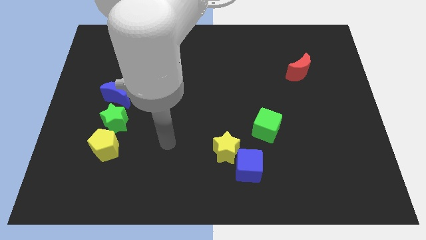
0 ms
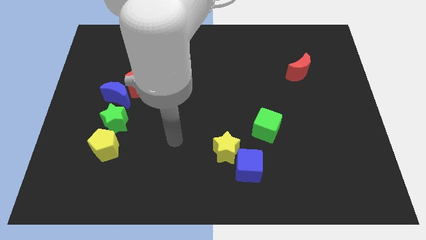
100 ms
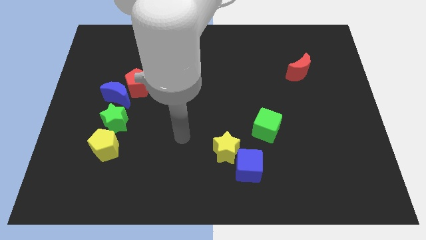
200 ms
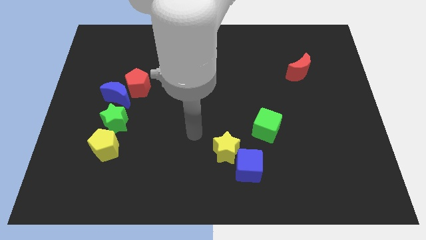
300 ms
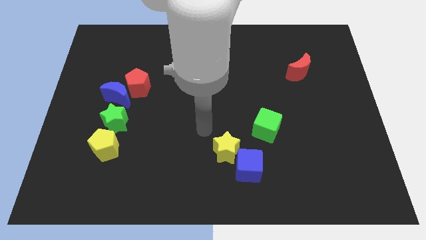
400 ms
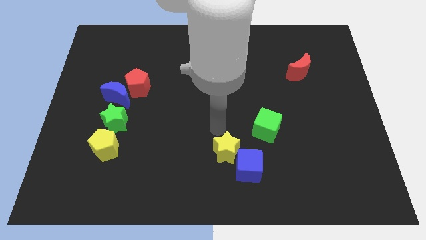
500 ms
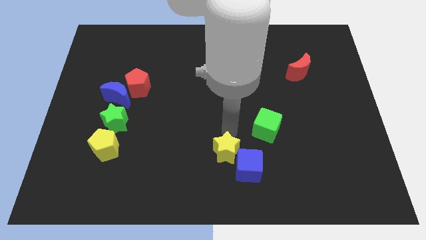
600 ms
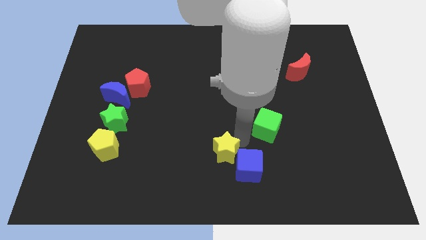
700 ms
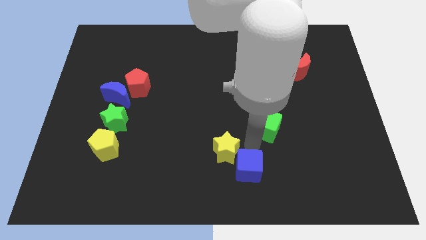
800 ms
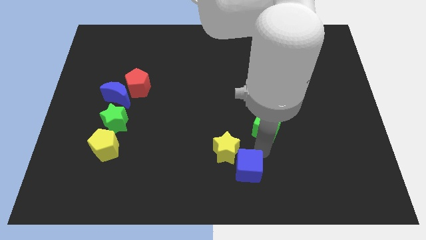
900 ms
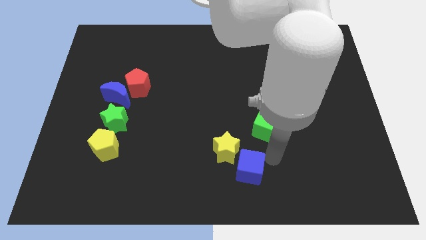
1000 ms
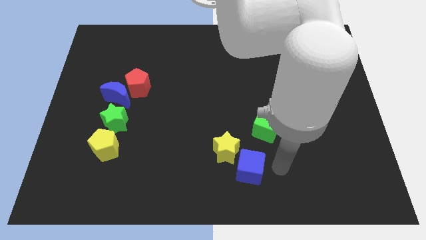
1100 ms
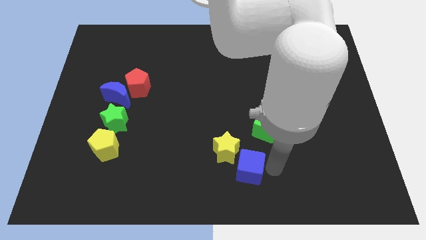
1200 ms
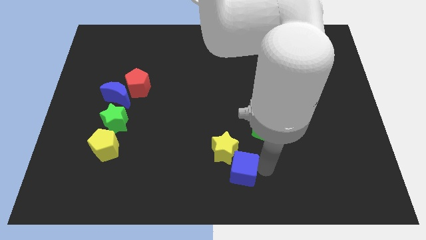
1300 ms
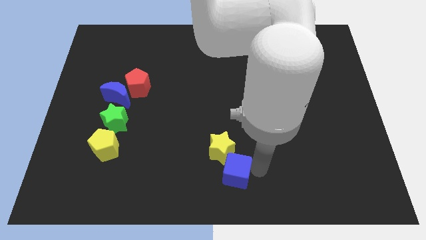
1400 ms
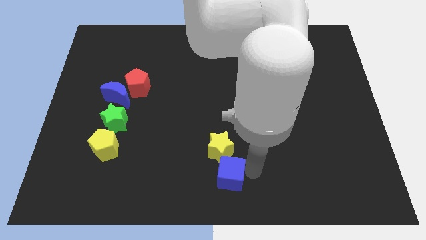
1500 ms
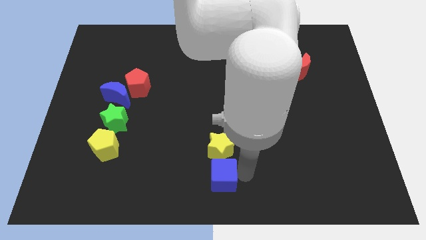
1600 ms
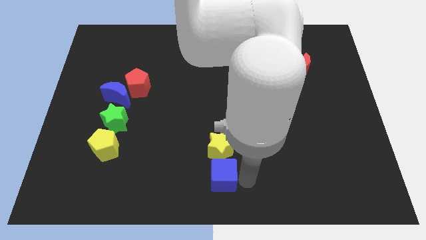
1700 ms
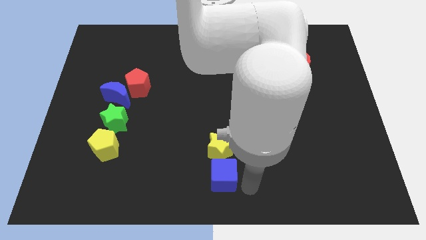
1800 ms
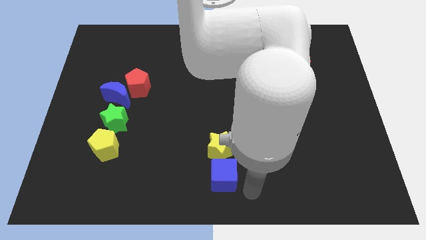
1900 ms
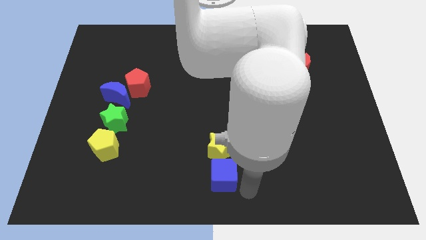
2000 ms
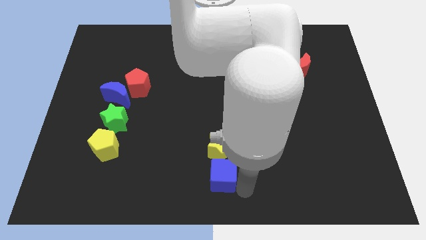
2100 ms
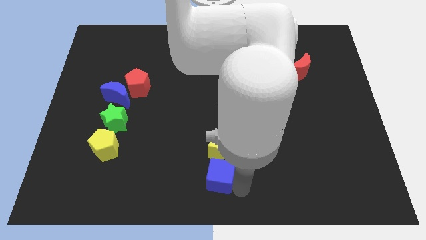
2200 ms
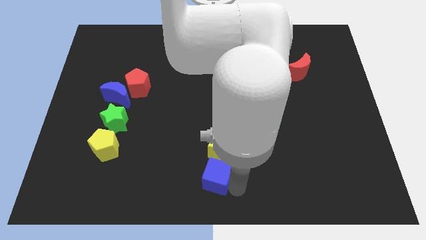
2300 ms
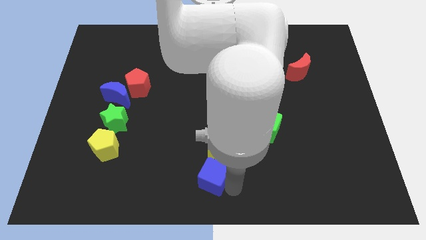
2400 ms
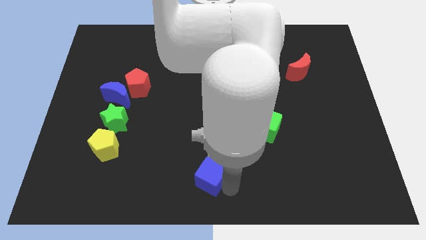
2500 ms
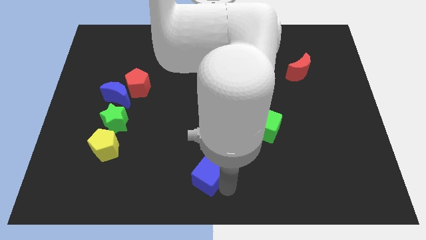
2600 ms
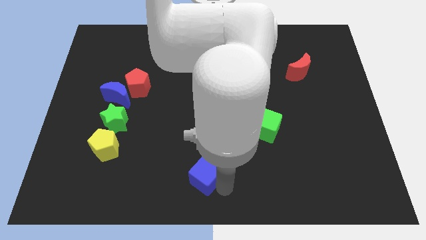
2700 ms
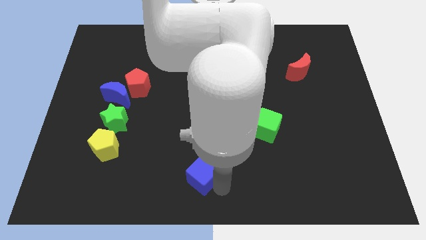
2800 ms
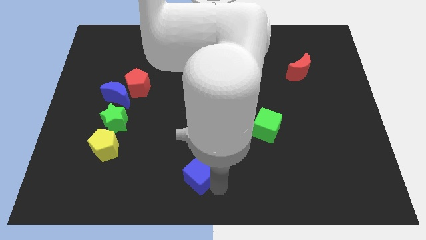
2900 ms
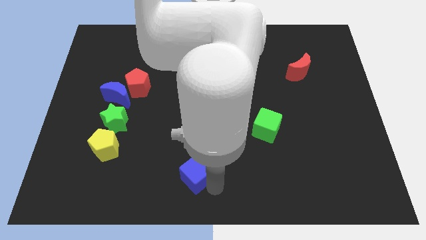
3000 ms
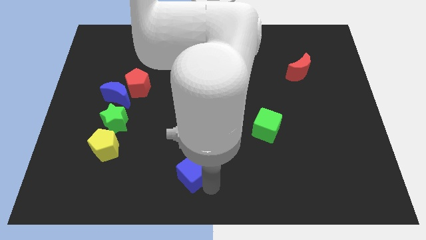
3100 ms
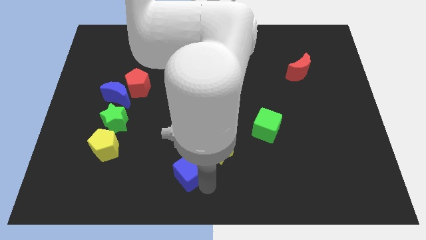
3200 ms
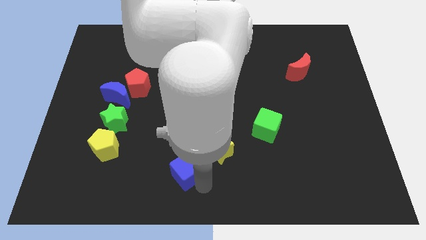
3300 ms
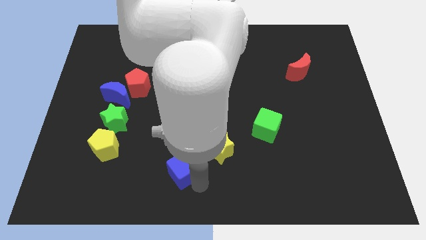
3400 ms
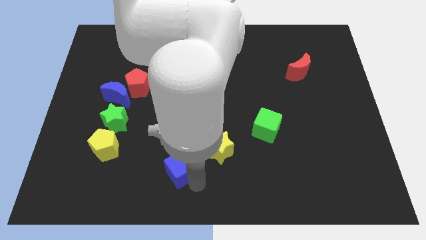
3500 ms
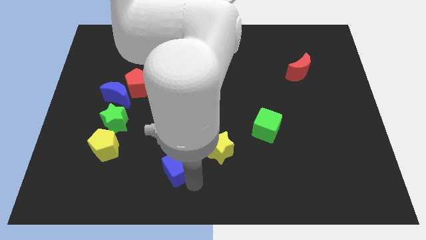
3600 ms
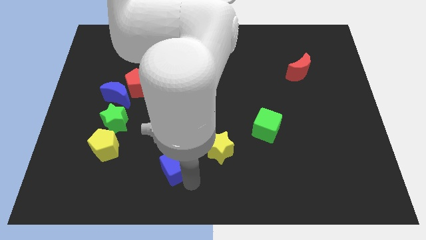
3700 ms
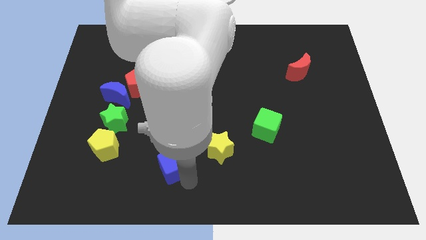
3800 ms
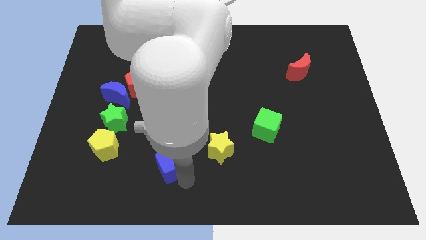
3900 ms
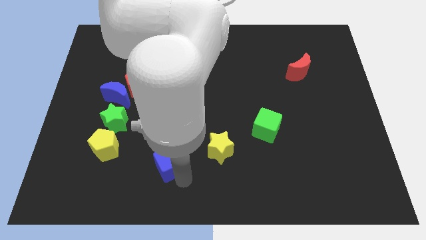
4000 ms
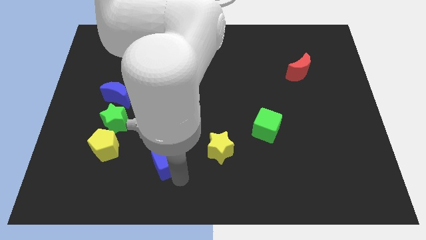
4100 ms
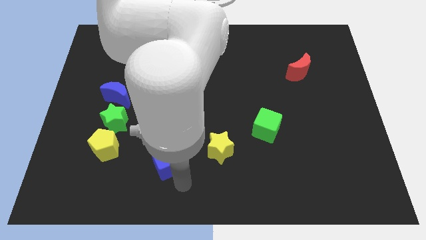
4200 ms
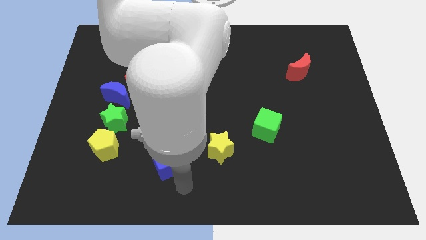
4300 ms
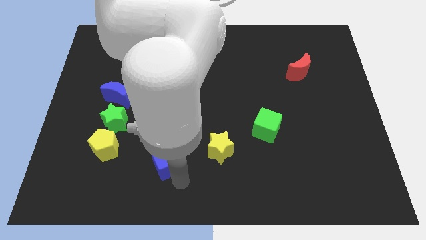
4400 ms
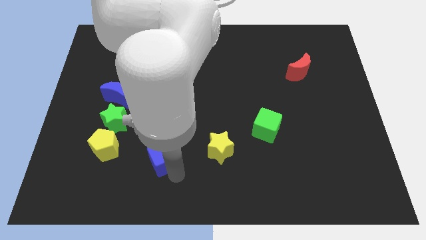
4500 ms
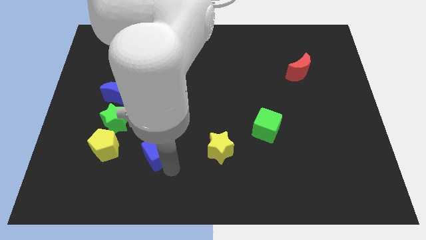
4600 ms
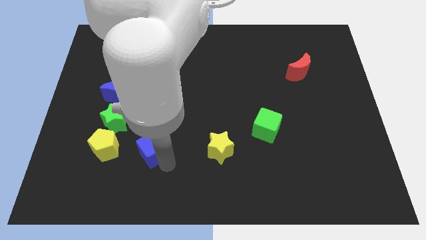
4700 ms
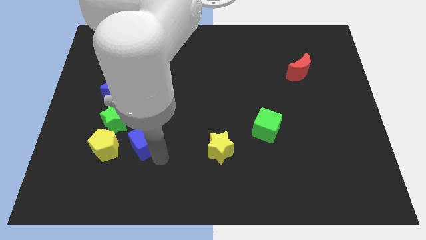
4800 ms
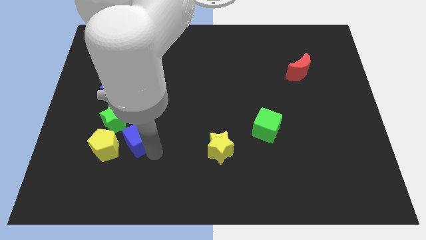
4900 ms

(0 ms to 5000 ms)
move the blue cube to the bottom of the red pentagon

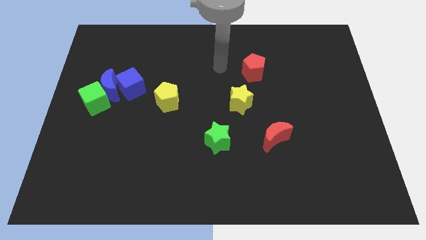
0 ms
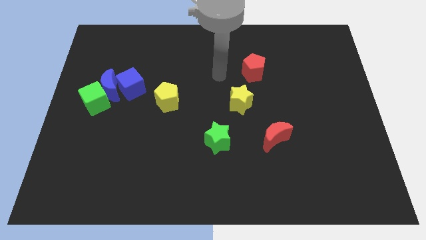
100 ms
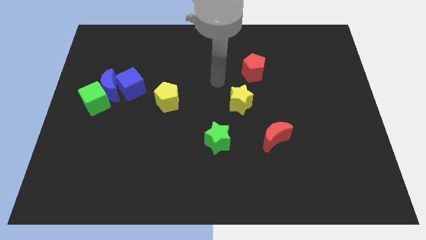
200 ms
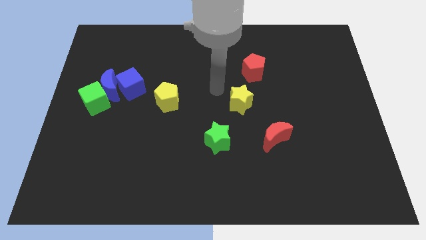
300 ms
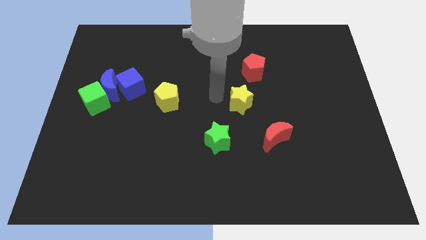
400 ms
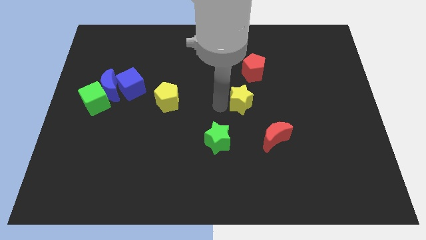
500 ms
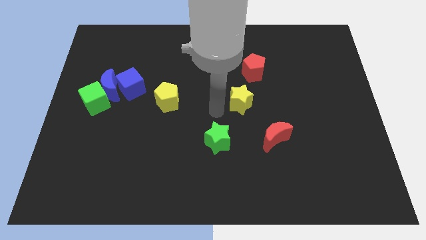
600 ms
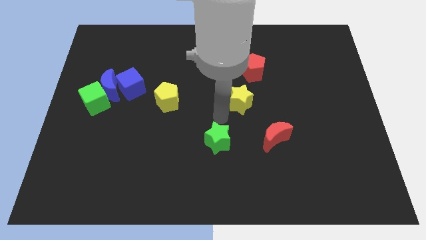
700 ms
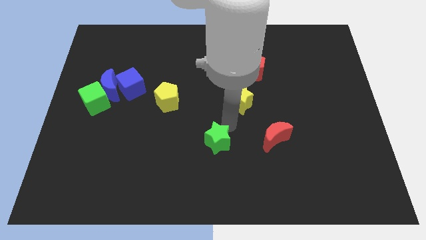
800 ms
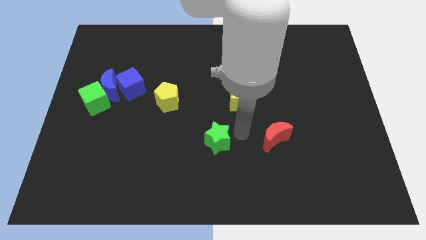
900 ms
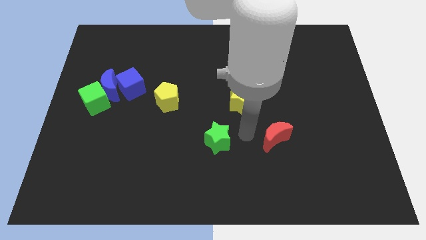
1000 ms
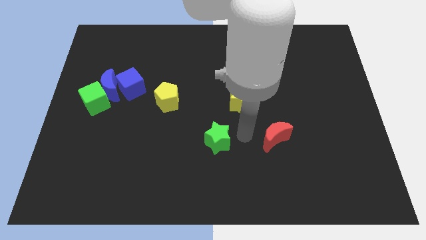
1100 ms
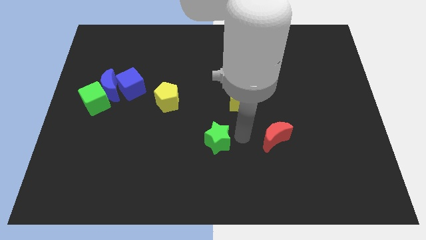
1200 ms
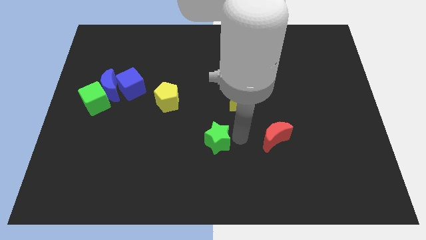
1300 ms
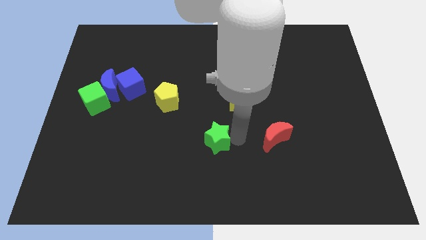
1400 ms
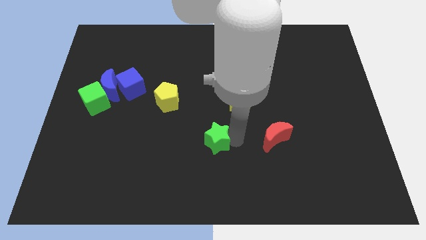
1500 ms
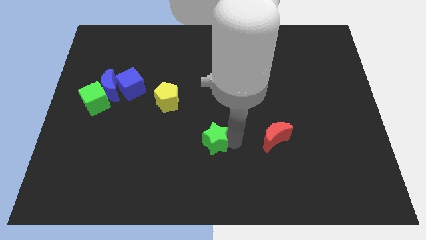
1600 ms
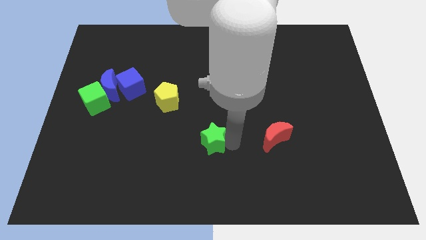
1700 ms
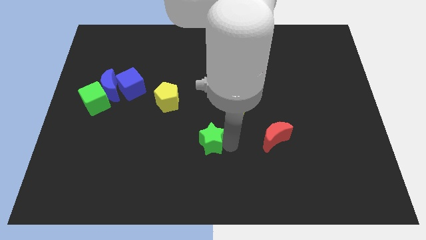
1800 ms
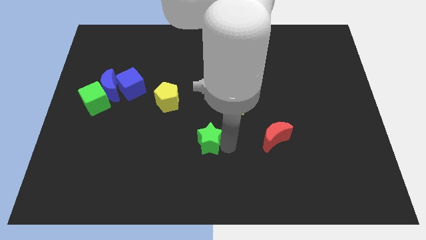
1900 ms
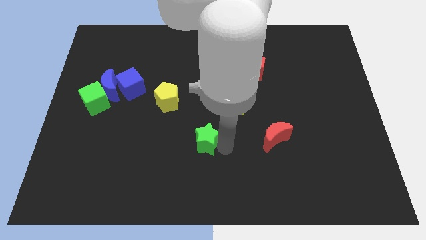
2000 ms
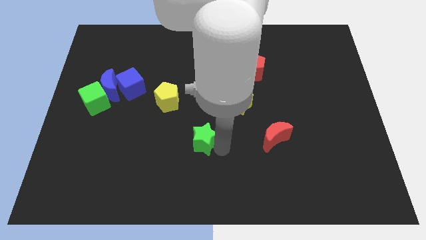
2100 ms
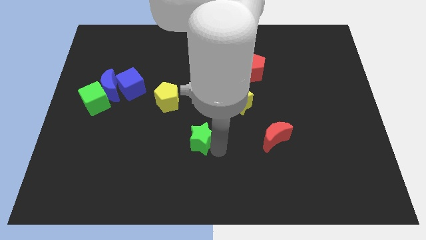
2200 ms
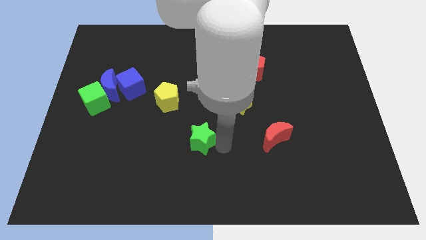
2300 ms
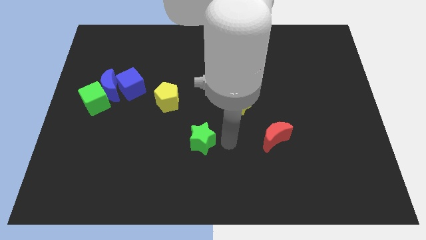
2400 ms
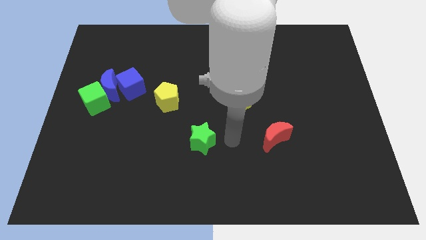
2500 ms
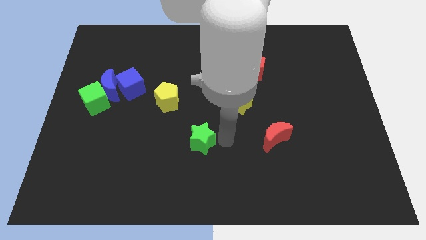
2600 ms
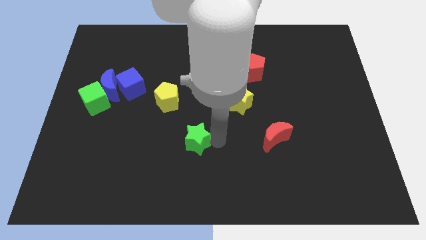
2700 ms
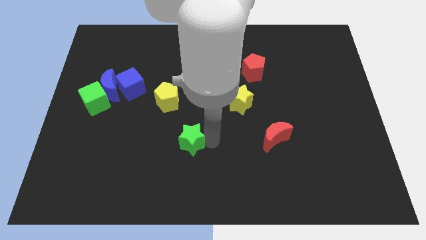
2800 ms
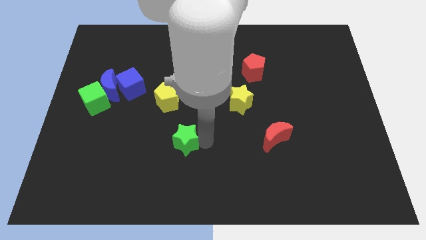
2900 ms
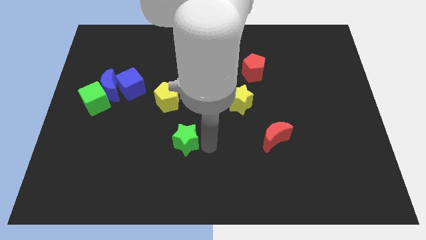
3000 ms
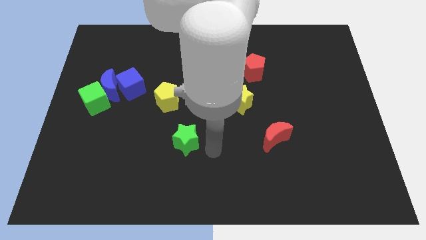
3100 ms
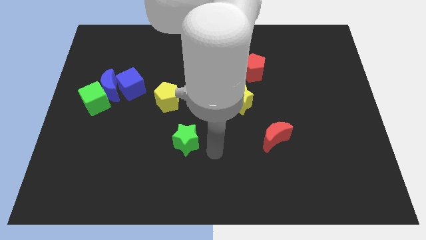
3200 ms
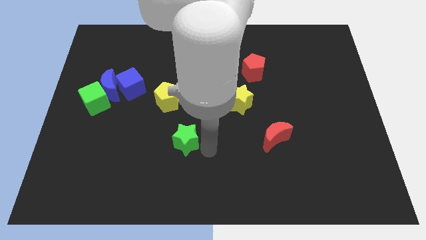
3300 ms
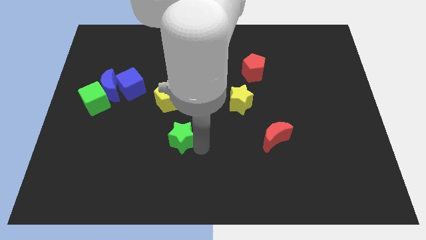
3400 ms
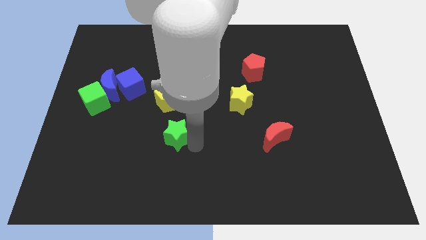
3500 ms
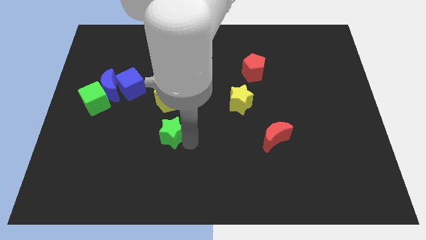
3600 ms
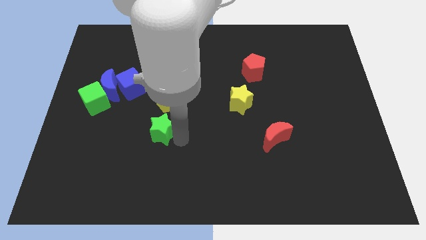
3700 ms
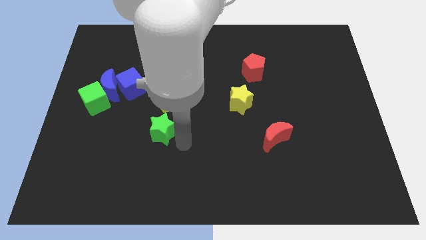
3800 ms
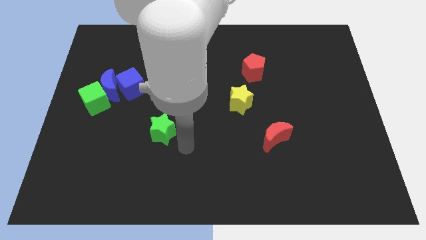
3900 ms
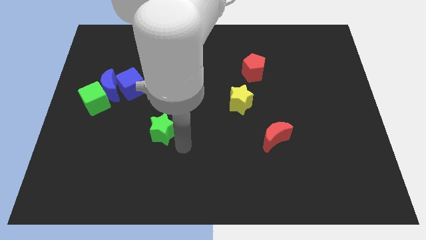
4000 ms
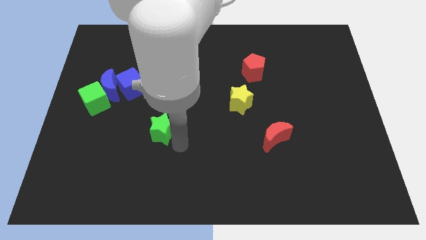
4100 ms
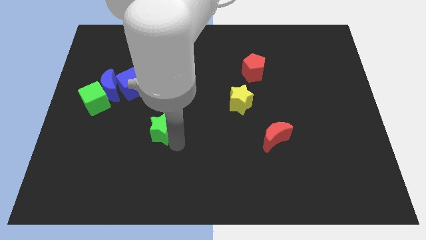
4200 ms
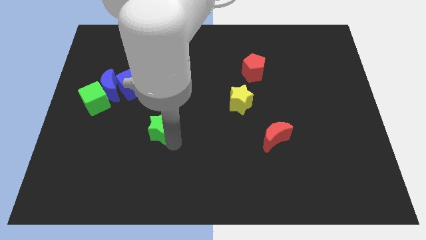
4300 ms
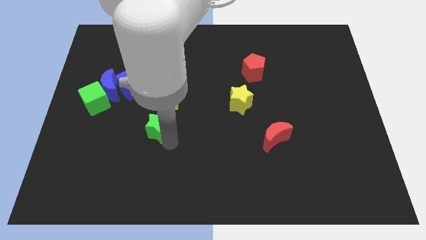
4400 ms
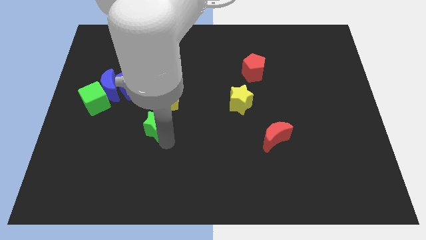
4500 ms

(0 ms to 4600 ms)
push the green star diagonally down and to the left of the yellow pentagon
